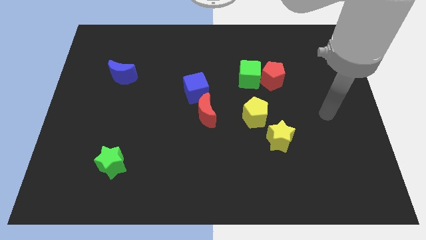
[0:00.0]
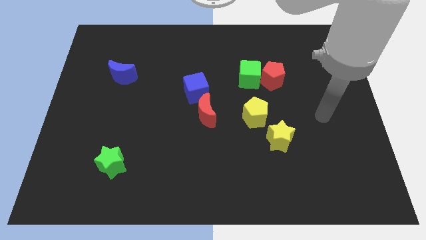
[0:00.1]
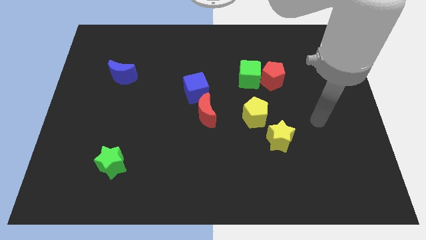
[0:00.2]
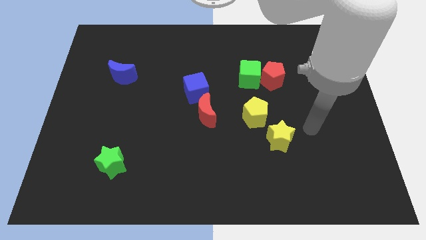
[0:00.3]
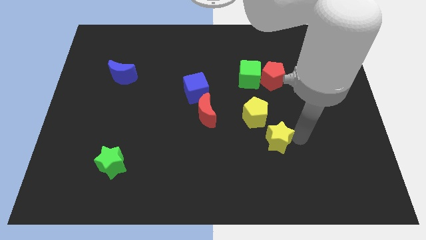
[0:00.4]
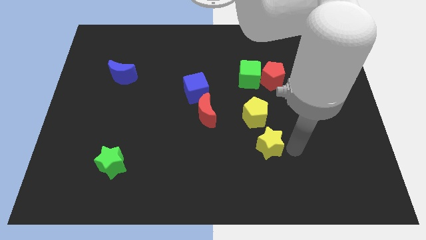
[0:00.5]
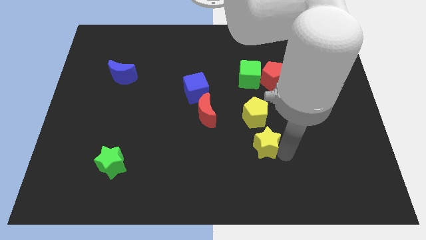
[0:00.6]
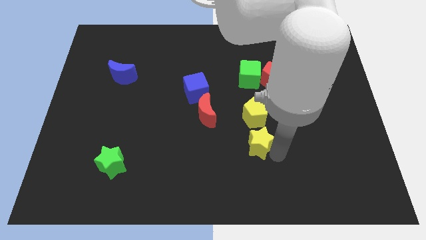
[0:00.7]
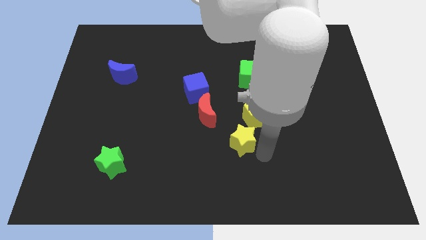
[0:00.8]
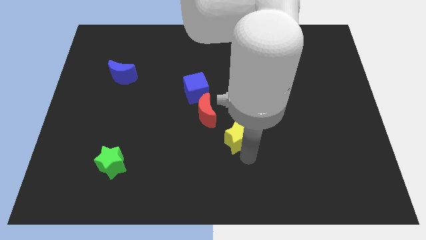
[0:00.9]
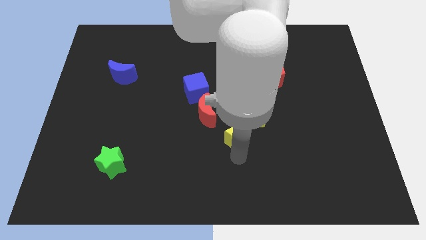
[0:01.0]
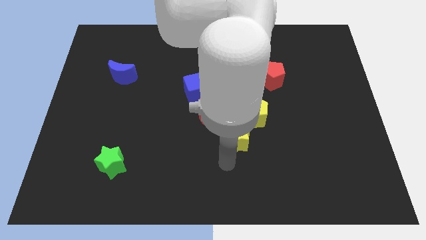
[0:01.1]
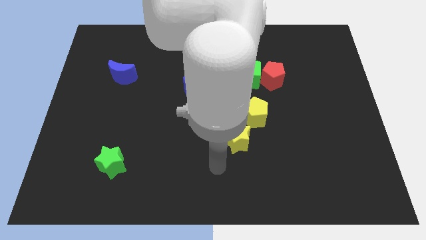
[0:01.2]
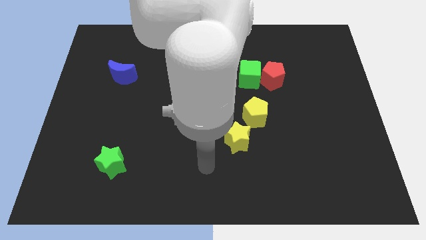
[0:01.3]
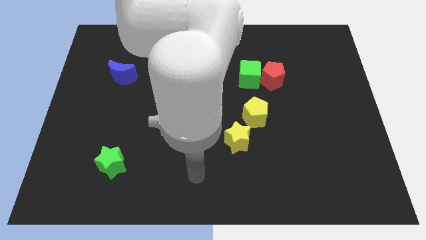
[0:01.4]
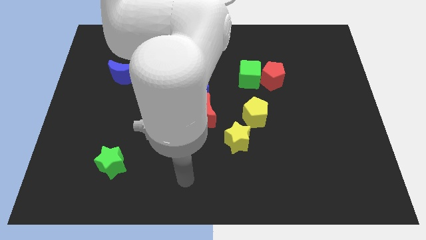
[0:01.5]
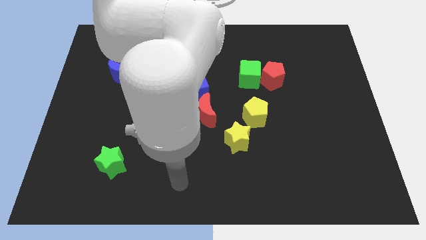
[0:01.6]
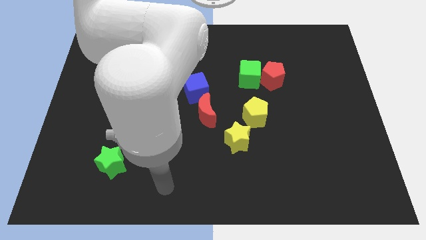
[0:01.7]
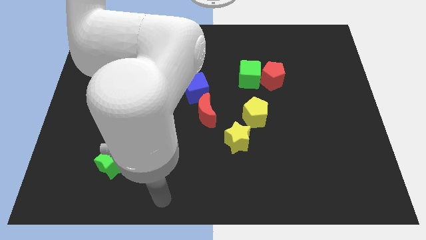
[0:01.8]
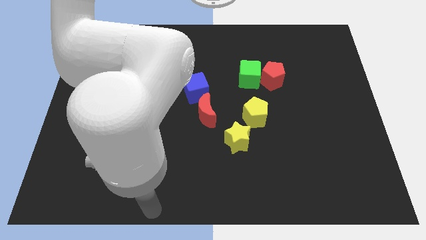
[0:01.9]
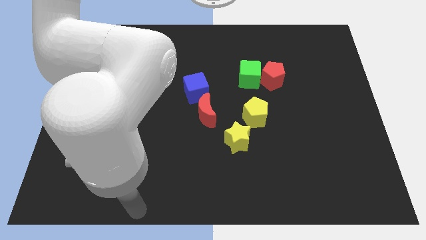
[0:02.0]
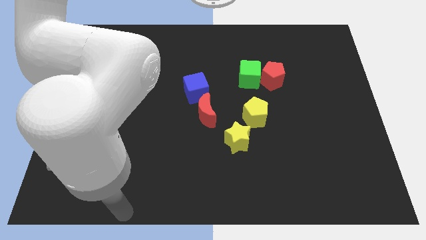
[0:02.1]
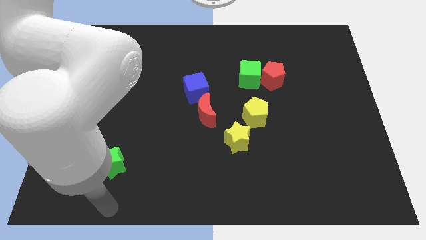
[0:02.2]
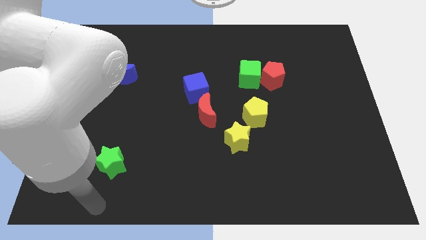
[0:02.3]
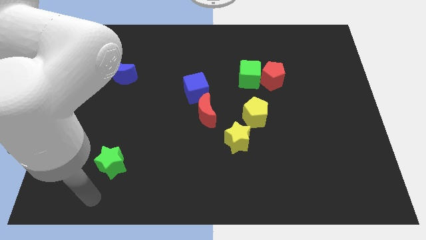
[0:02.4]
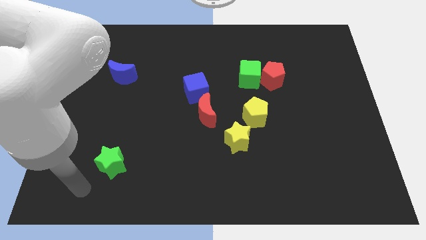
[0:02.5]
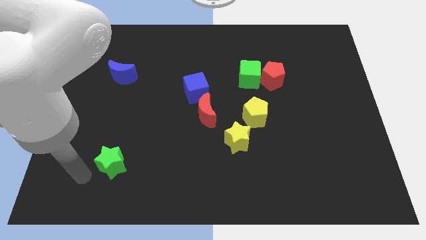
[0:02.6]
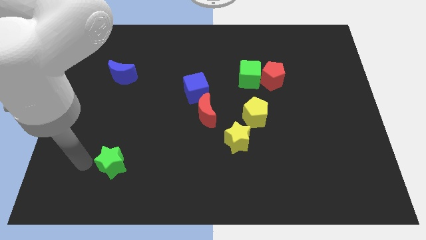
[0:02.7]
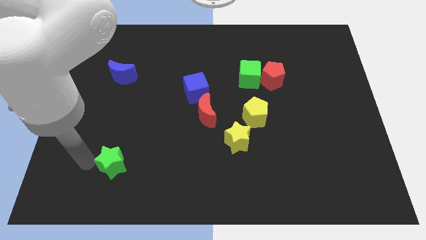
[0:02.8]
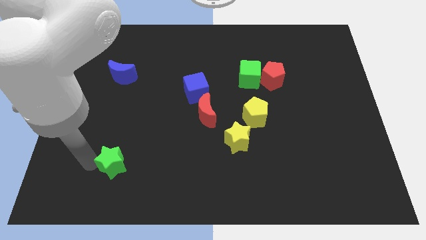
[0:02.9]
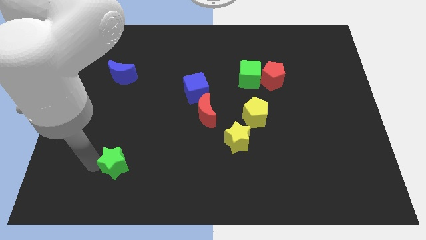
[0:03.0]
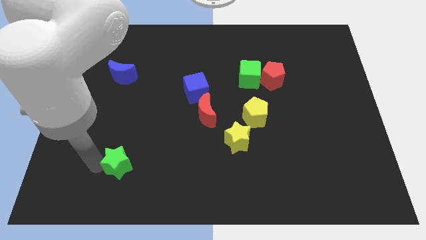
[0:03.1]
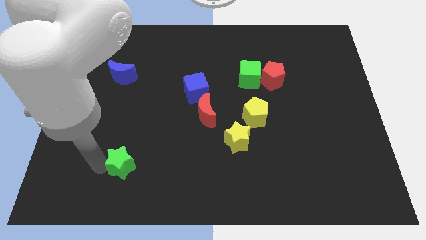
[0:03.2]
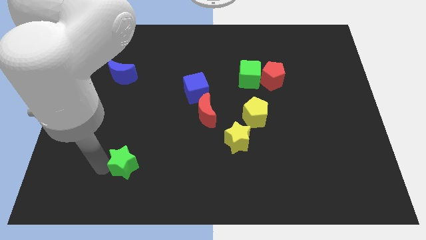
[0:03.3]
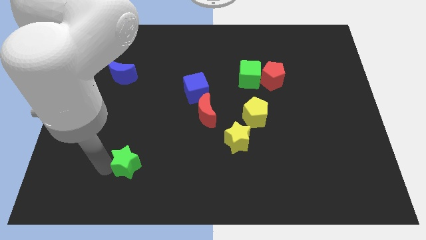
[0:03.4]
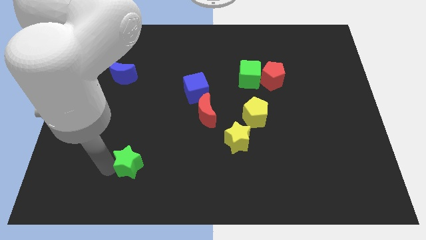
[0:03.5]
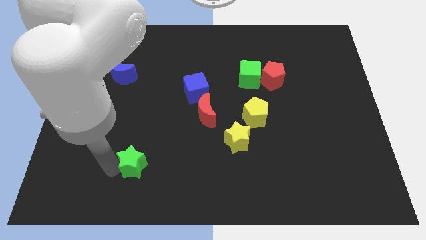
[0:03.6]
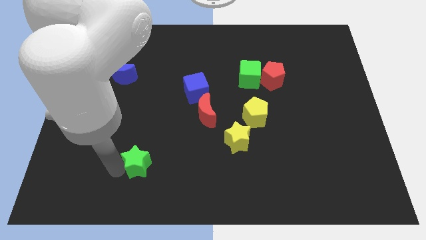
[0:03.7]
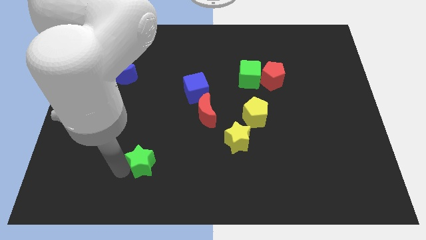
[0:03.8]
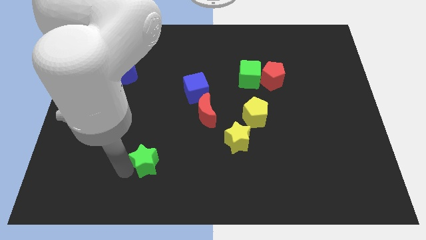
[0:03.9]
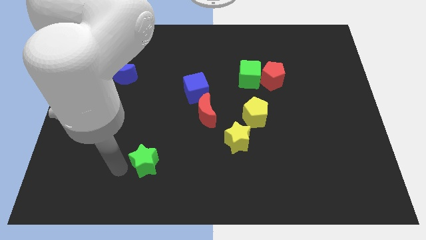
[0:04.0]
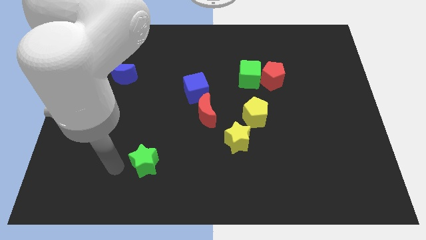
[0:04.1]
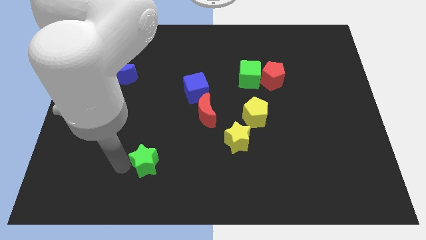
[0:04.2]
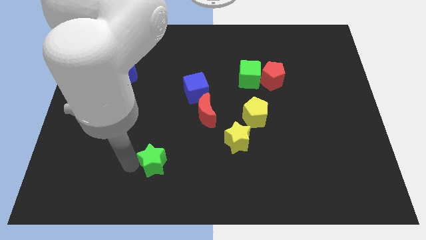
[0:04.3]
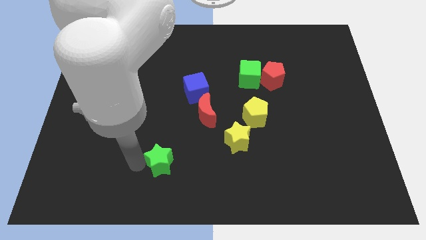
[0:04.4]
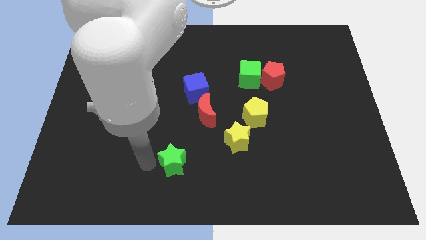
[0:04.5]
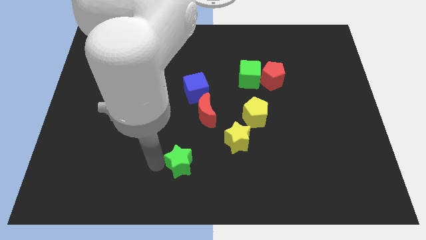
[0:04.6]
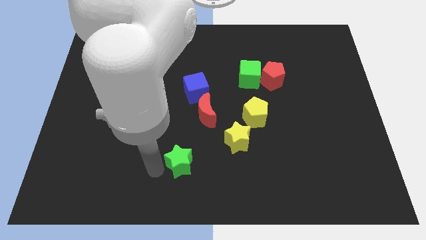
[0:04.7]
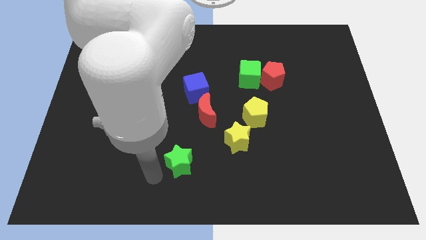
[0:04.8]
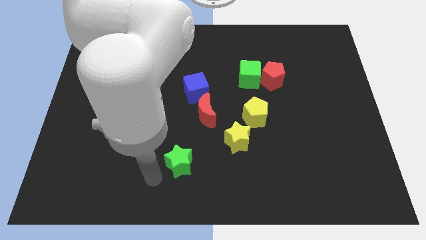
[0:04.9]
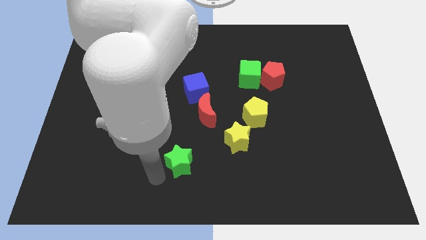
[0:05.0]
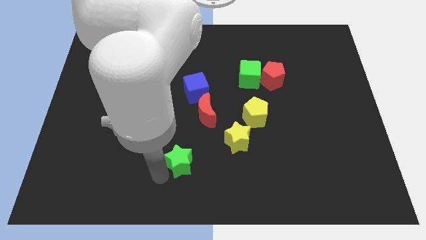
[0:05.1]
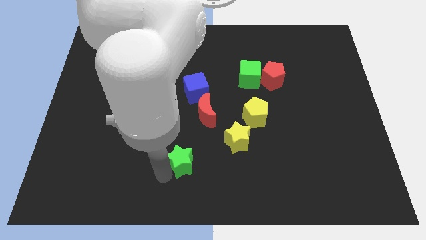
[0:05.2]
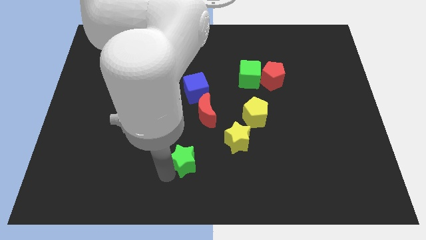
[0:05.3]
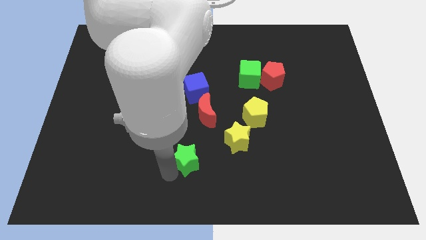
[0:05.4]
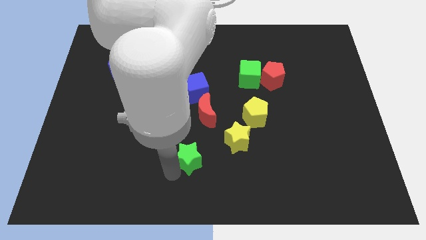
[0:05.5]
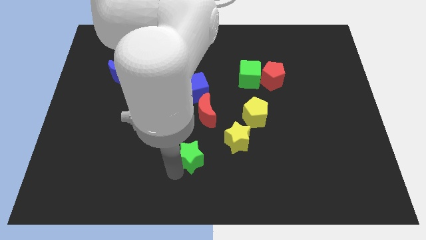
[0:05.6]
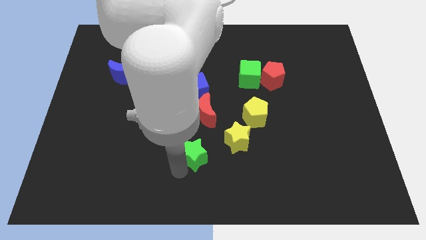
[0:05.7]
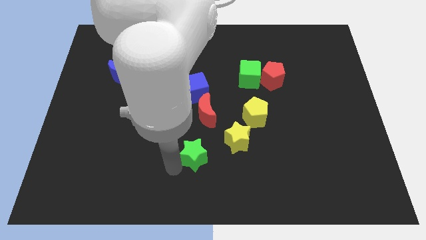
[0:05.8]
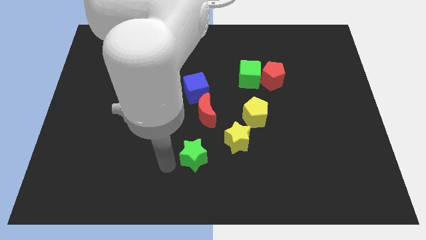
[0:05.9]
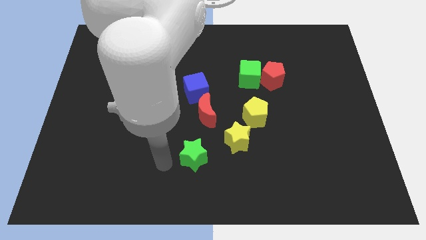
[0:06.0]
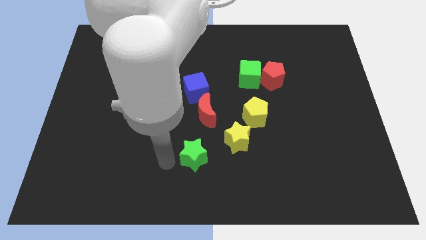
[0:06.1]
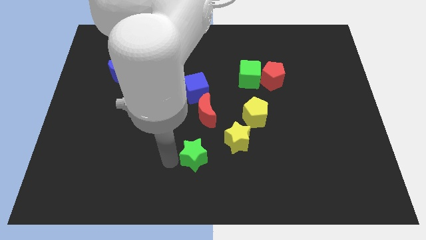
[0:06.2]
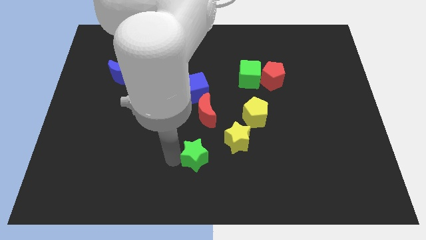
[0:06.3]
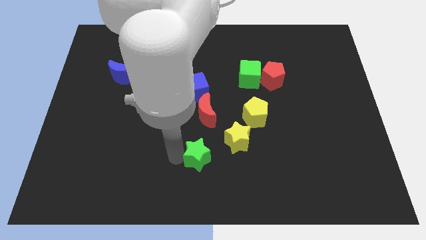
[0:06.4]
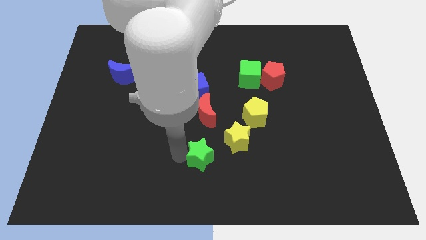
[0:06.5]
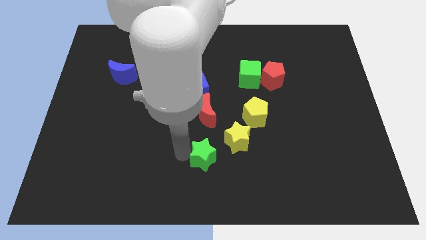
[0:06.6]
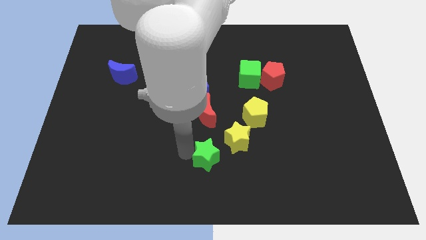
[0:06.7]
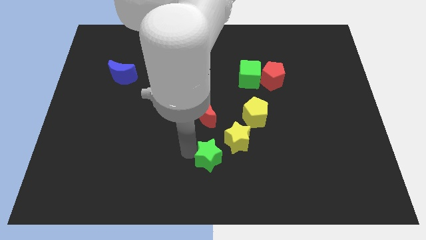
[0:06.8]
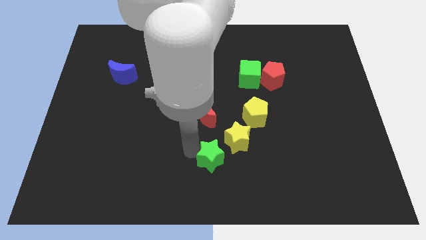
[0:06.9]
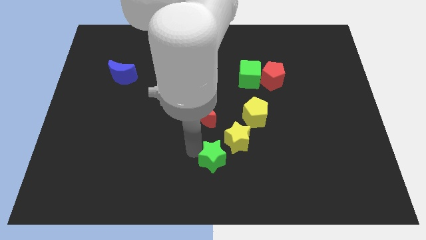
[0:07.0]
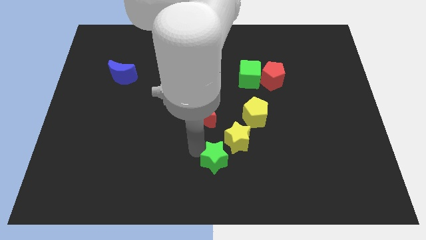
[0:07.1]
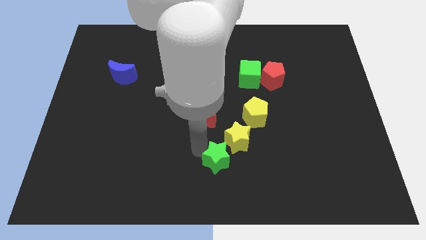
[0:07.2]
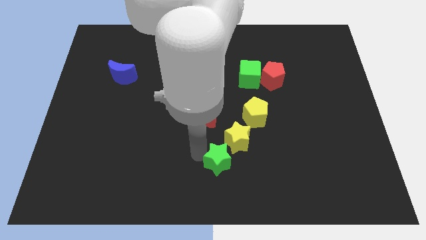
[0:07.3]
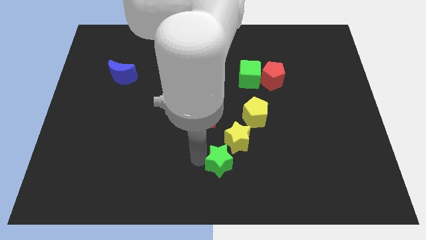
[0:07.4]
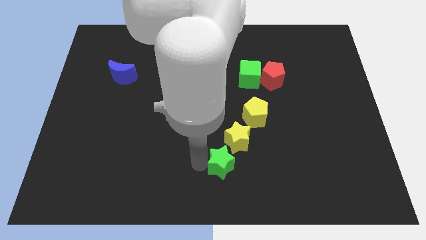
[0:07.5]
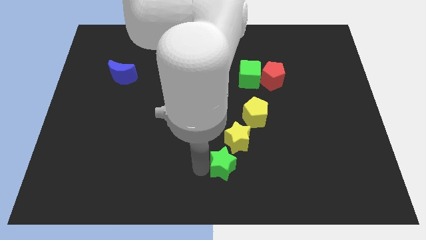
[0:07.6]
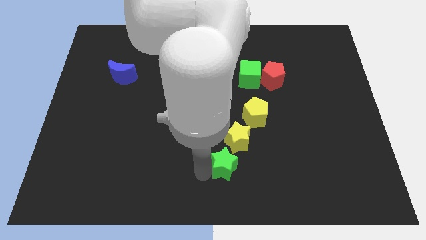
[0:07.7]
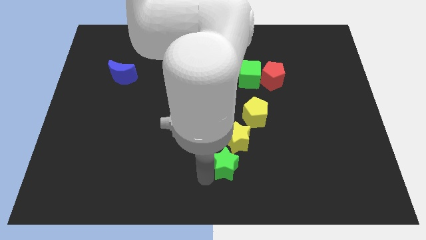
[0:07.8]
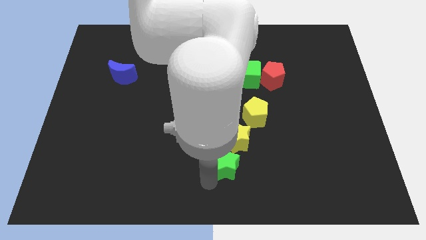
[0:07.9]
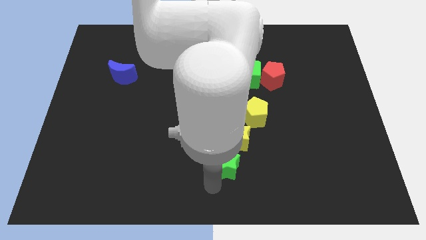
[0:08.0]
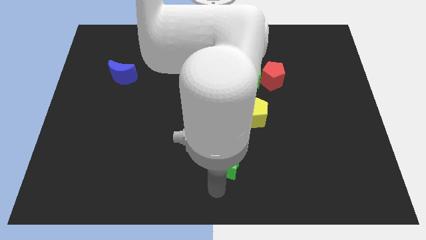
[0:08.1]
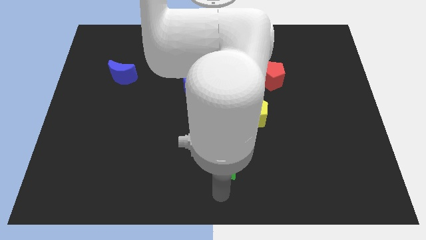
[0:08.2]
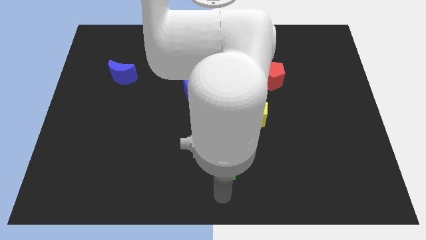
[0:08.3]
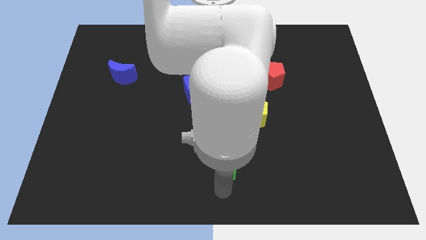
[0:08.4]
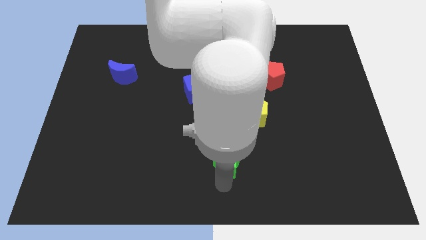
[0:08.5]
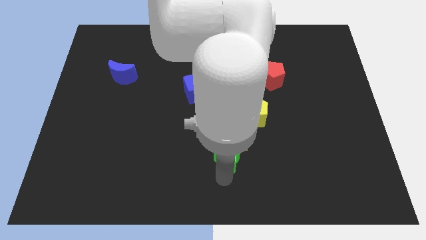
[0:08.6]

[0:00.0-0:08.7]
slide the green star close to the yellow star
